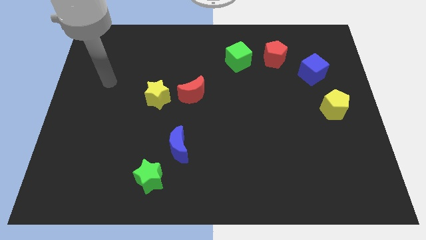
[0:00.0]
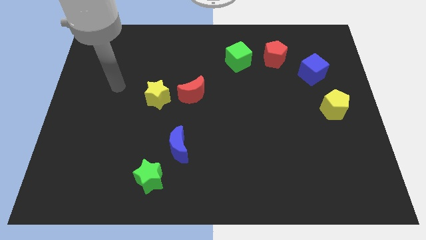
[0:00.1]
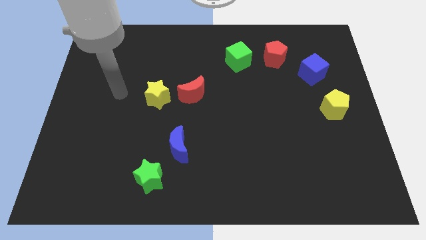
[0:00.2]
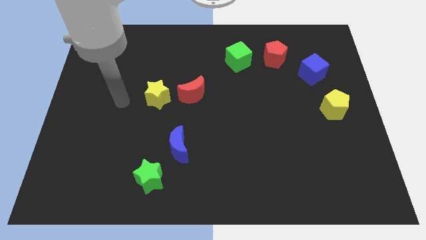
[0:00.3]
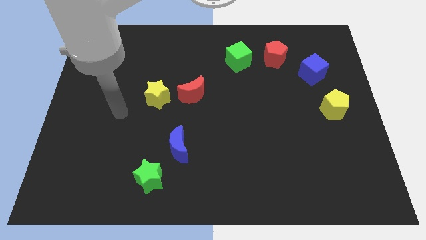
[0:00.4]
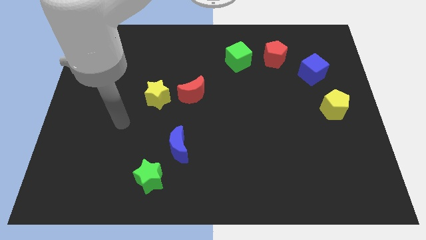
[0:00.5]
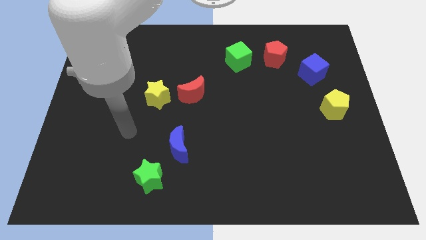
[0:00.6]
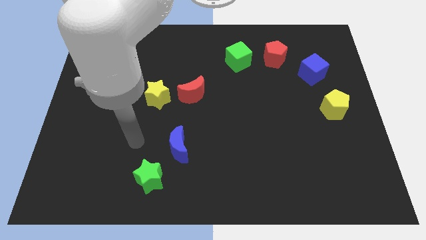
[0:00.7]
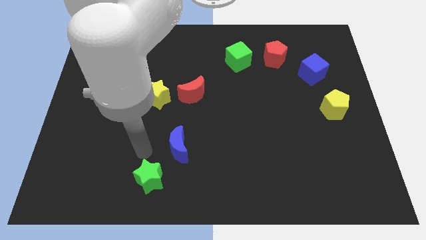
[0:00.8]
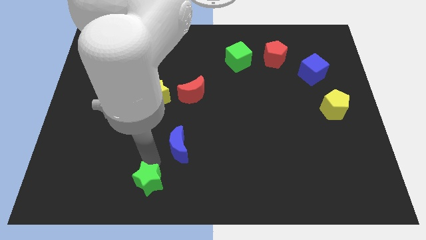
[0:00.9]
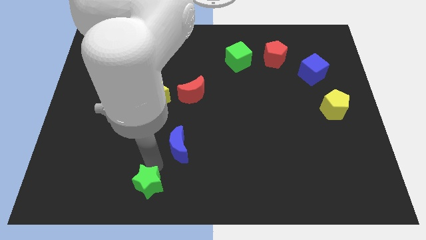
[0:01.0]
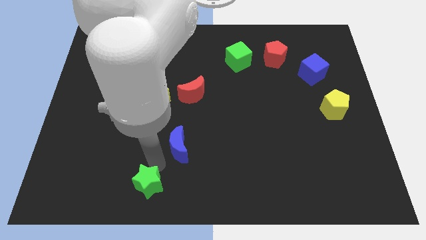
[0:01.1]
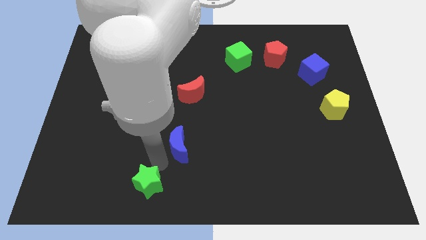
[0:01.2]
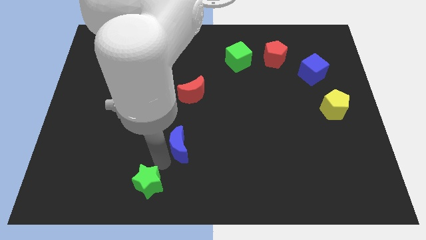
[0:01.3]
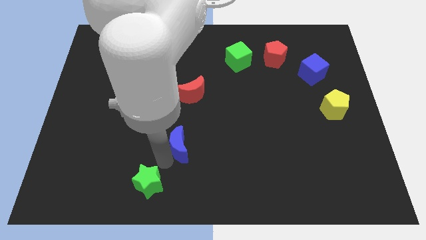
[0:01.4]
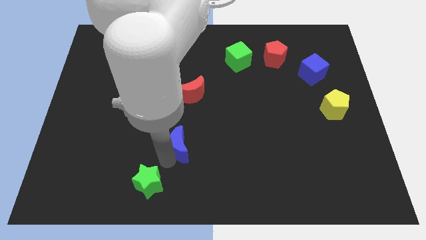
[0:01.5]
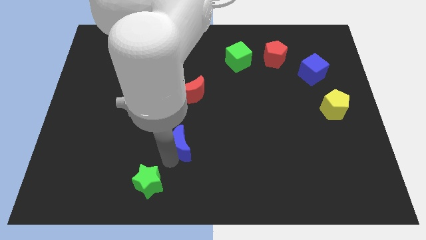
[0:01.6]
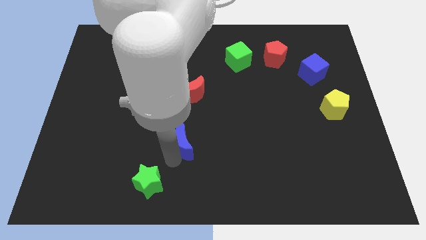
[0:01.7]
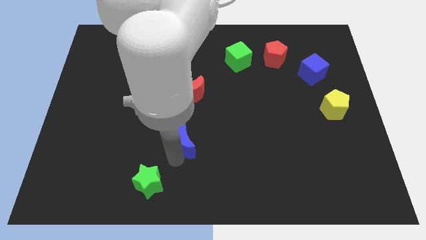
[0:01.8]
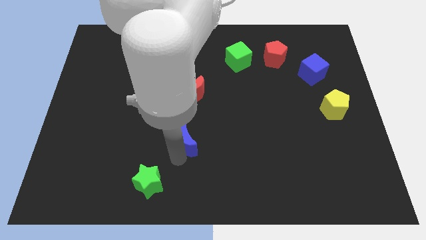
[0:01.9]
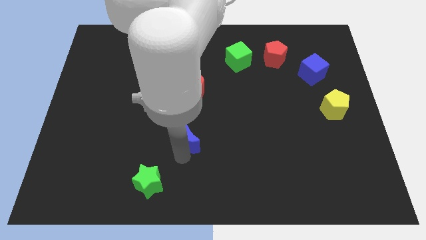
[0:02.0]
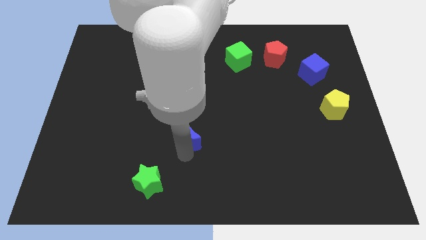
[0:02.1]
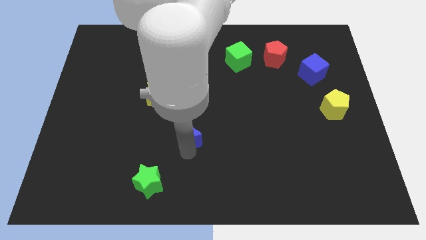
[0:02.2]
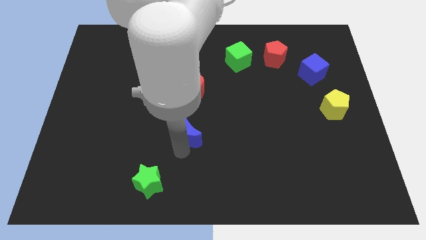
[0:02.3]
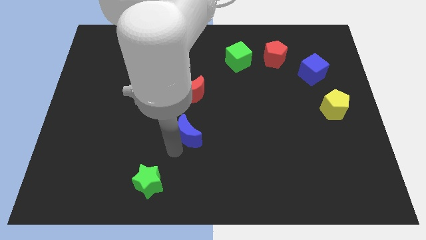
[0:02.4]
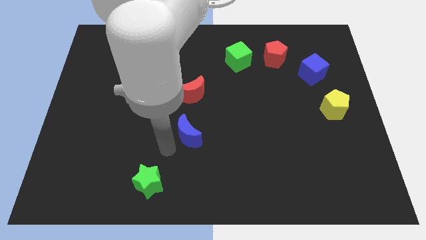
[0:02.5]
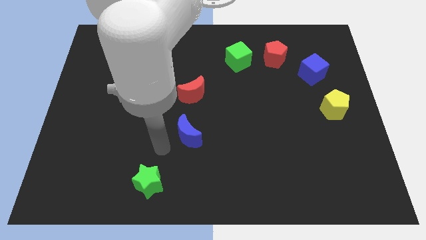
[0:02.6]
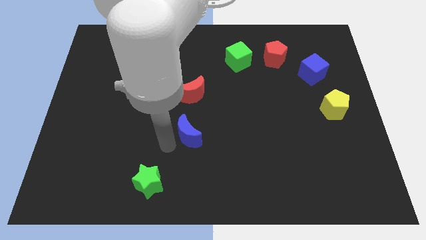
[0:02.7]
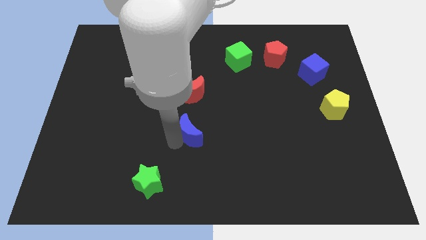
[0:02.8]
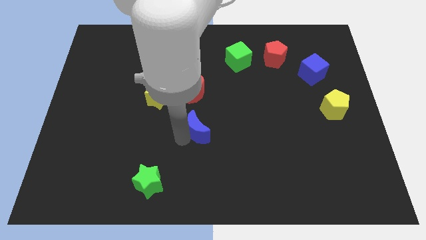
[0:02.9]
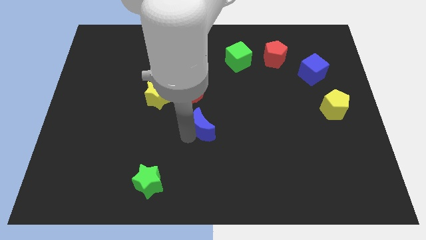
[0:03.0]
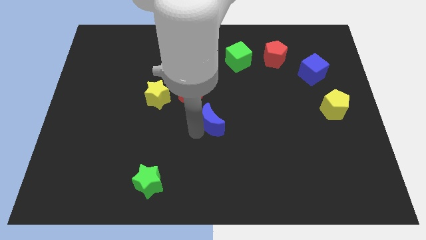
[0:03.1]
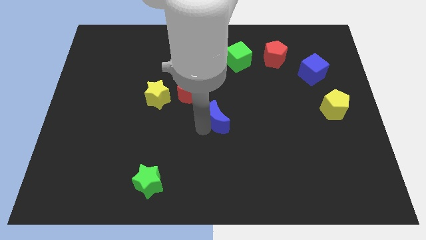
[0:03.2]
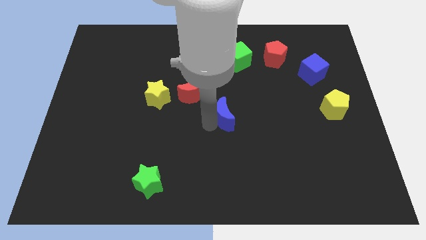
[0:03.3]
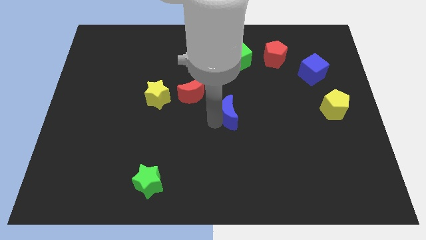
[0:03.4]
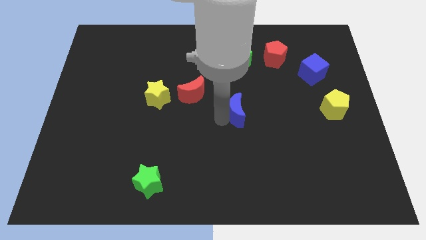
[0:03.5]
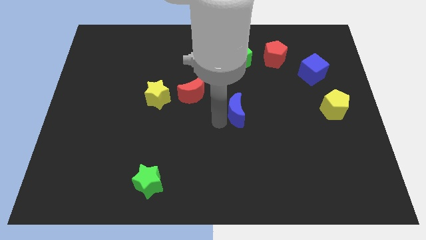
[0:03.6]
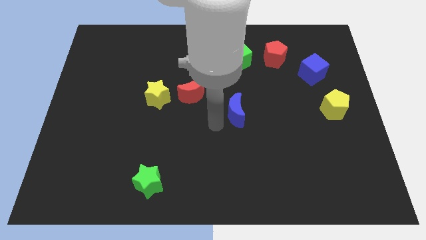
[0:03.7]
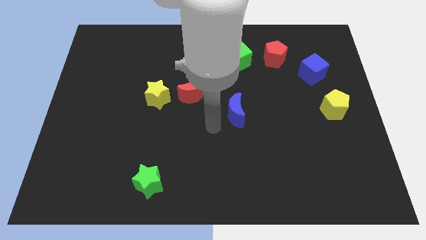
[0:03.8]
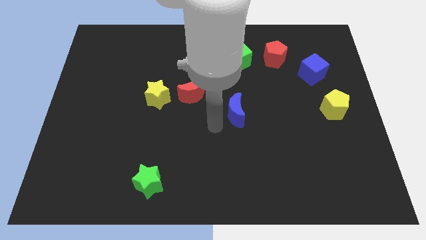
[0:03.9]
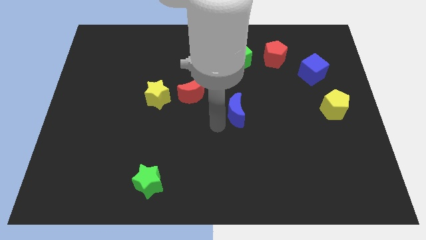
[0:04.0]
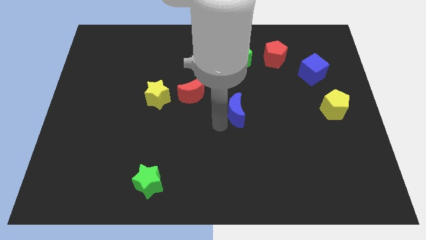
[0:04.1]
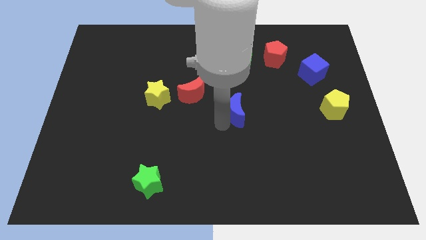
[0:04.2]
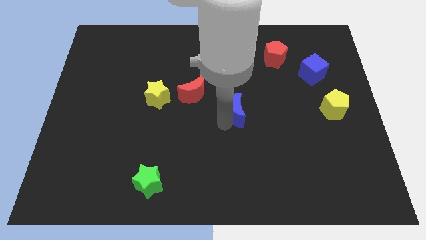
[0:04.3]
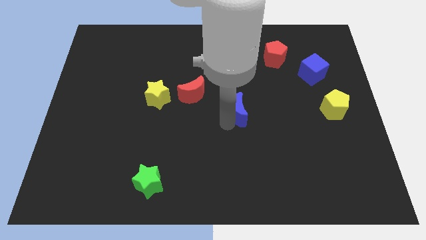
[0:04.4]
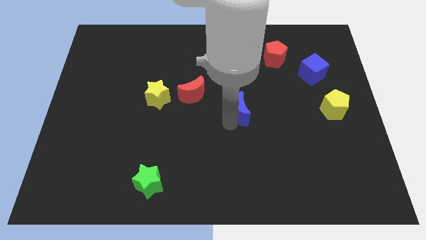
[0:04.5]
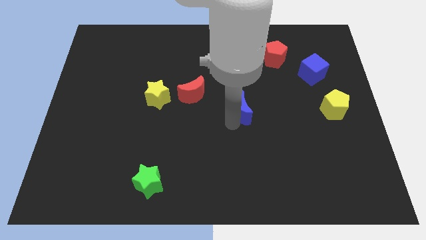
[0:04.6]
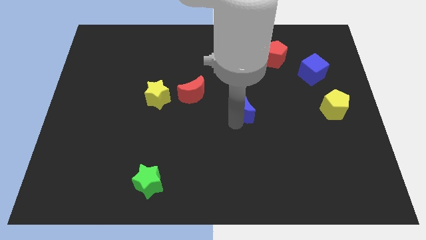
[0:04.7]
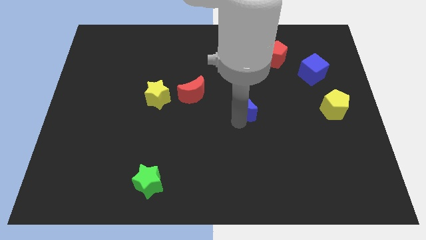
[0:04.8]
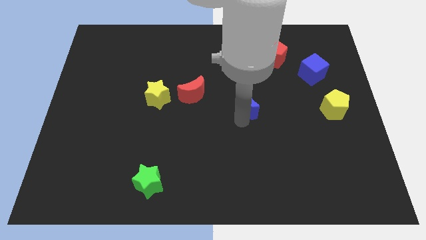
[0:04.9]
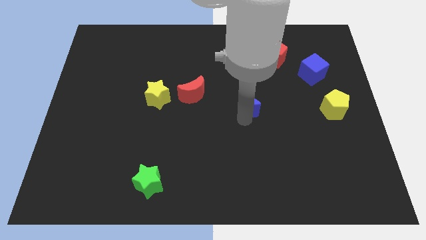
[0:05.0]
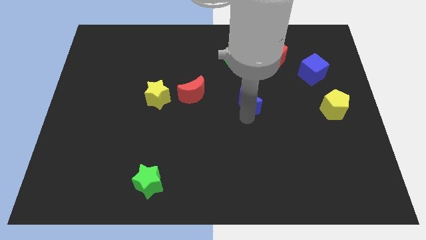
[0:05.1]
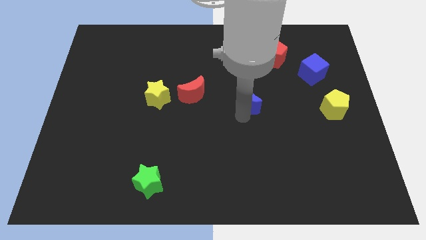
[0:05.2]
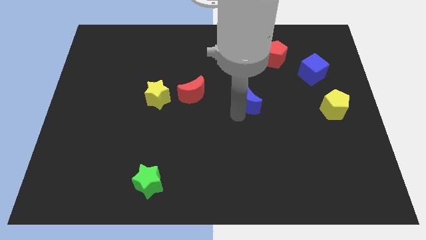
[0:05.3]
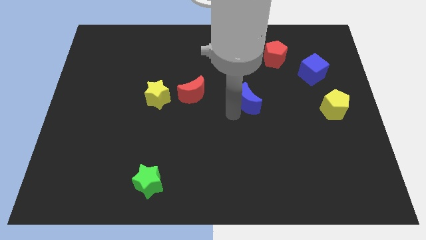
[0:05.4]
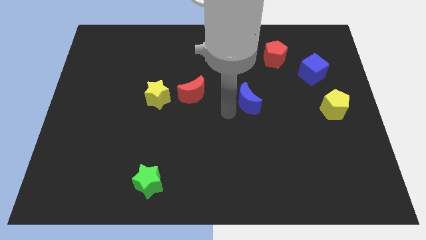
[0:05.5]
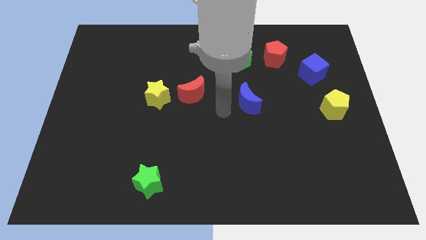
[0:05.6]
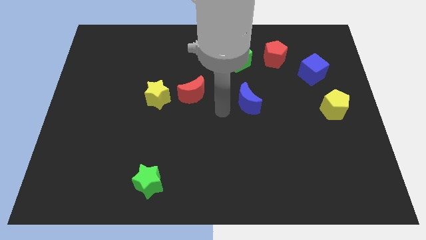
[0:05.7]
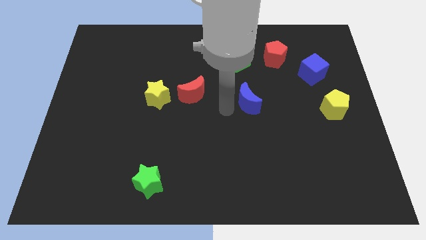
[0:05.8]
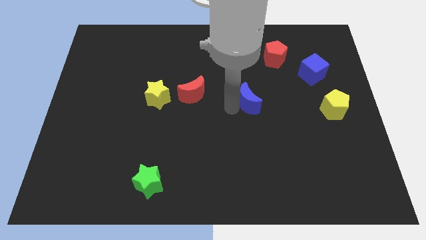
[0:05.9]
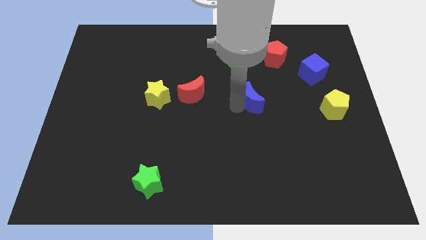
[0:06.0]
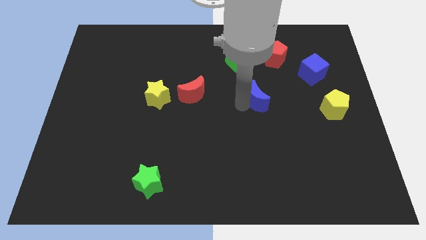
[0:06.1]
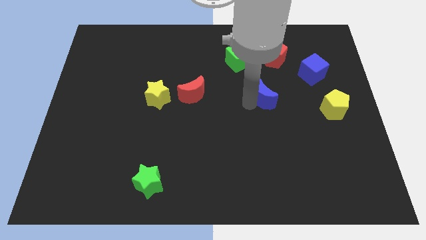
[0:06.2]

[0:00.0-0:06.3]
push the blue moon to the bottom of the red pentagon
